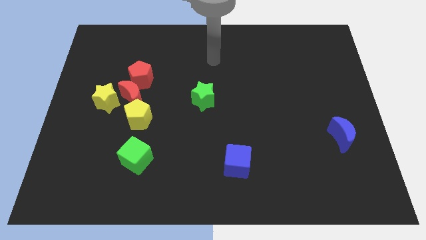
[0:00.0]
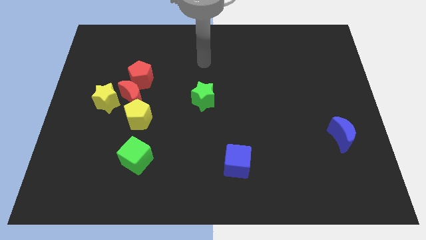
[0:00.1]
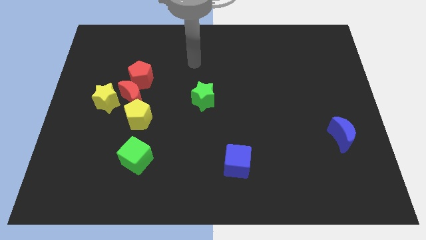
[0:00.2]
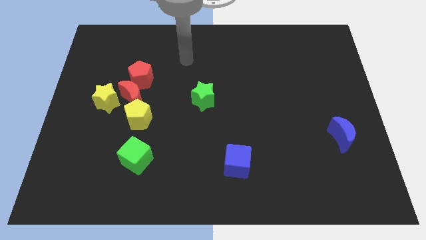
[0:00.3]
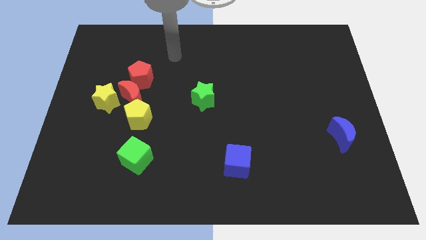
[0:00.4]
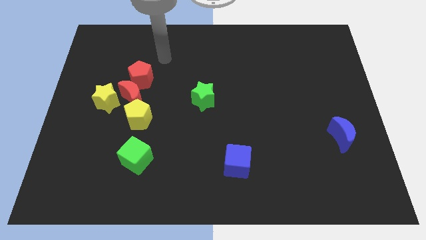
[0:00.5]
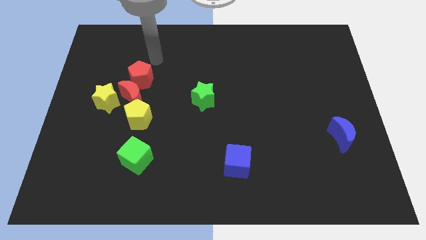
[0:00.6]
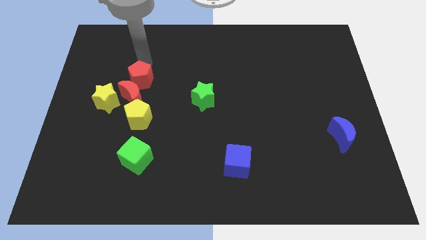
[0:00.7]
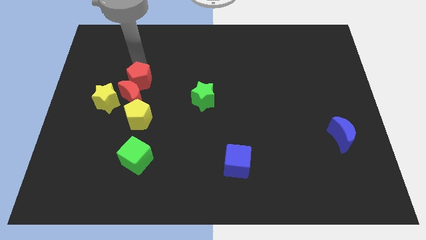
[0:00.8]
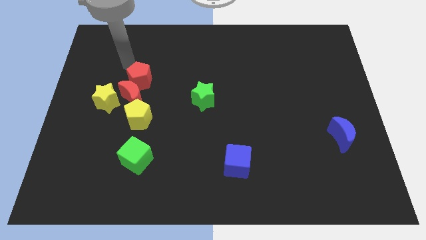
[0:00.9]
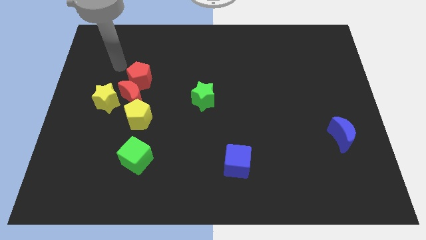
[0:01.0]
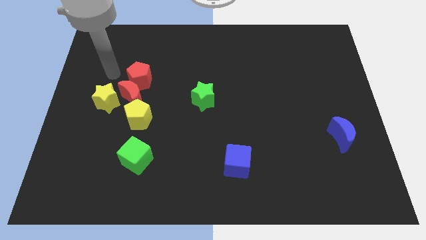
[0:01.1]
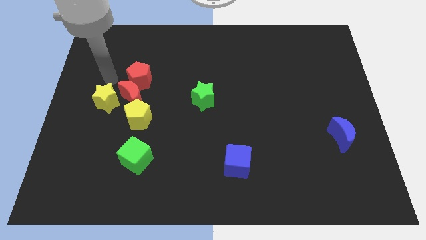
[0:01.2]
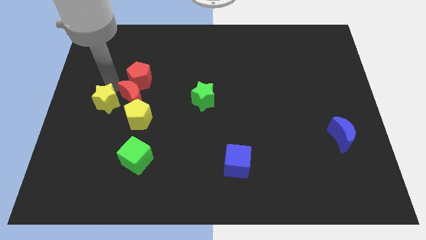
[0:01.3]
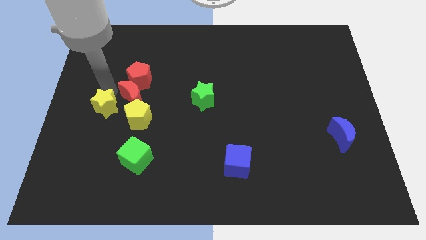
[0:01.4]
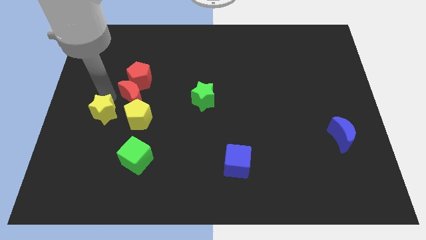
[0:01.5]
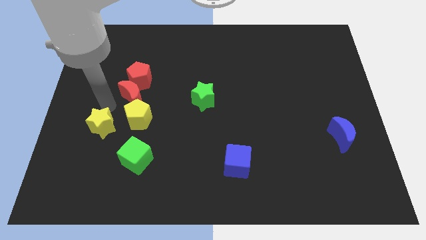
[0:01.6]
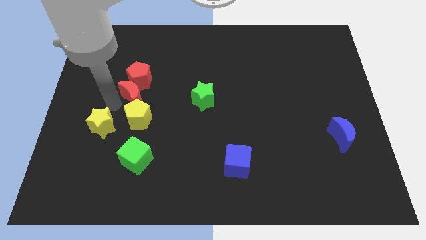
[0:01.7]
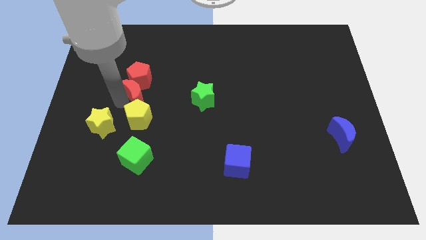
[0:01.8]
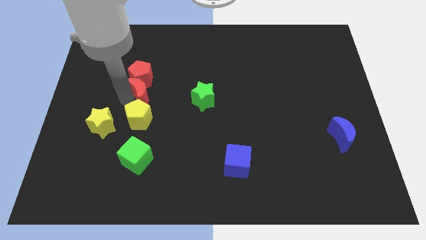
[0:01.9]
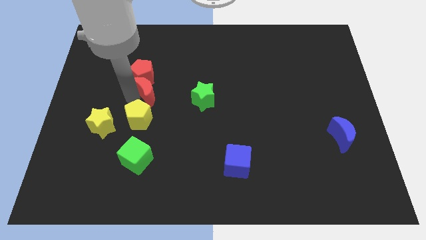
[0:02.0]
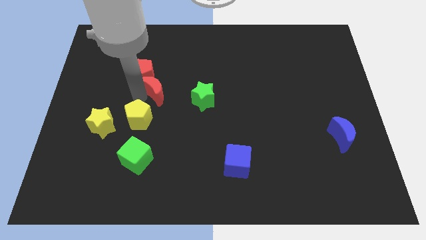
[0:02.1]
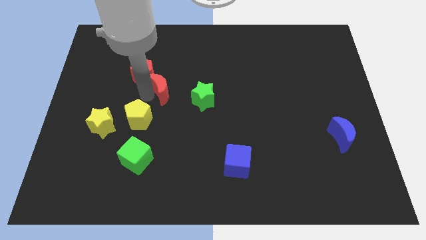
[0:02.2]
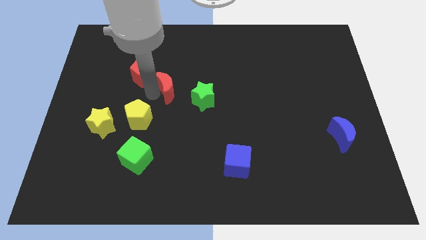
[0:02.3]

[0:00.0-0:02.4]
move the red moon away from the yellow star, red pentagon, and yellow pentagon

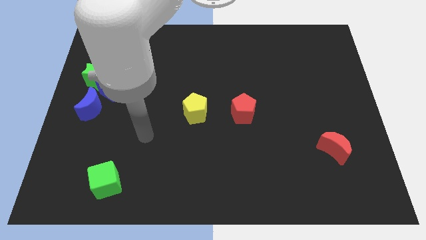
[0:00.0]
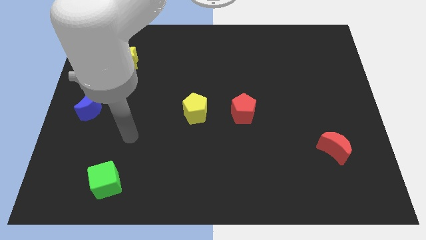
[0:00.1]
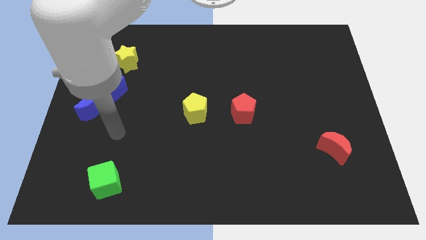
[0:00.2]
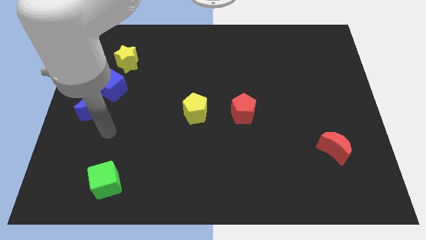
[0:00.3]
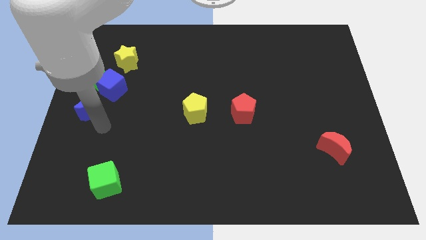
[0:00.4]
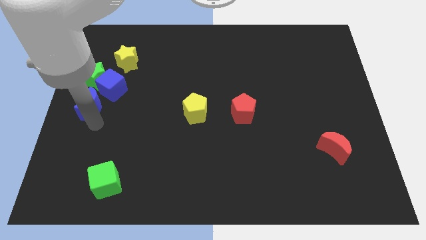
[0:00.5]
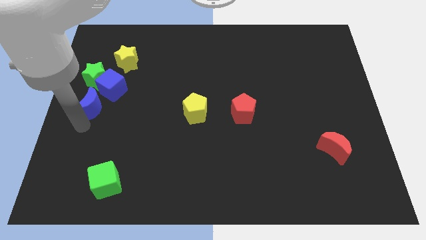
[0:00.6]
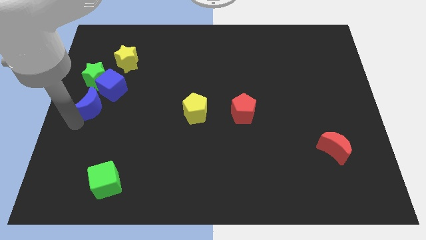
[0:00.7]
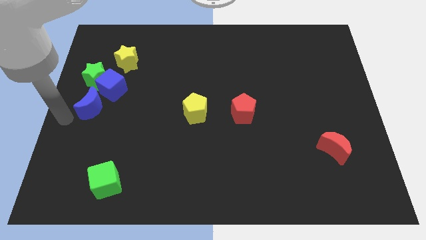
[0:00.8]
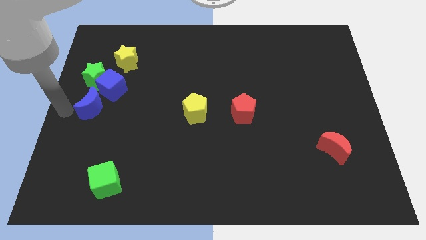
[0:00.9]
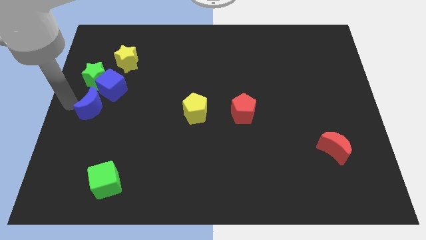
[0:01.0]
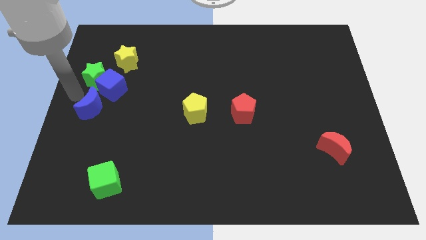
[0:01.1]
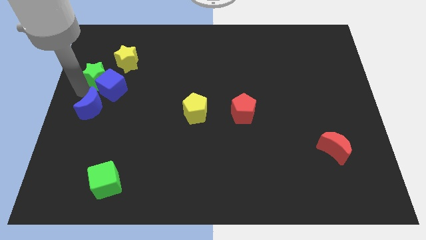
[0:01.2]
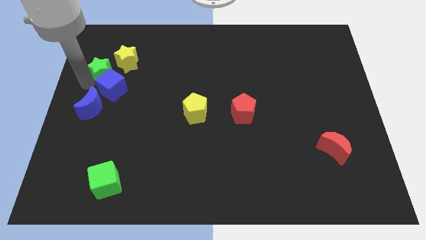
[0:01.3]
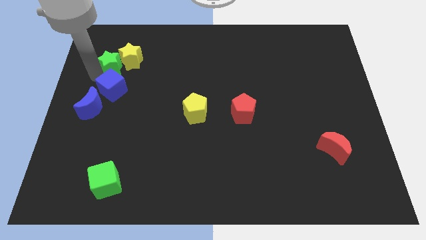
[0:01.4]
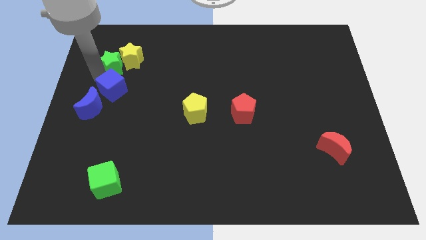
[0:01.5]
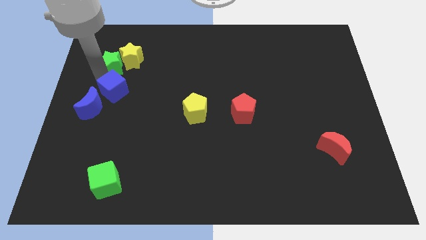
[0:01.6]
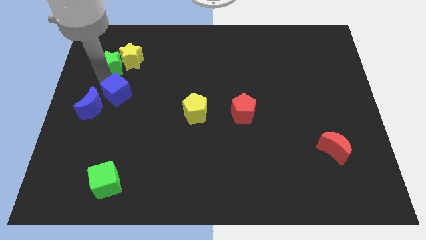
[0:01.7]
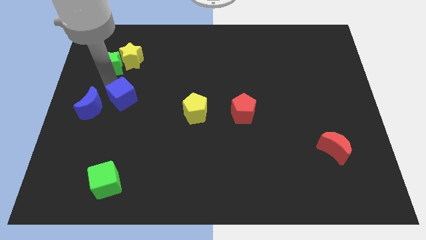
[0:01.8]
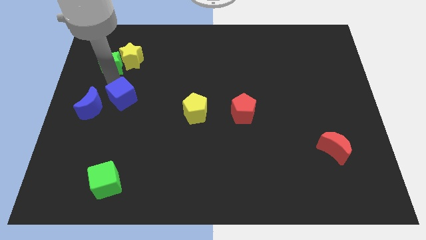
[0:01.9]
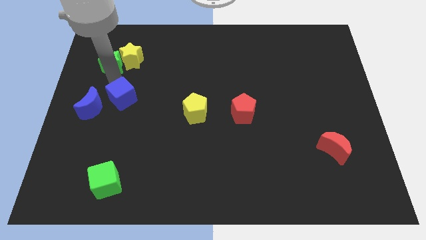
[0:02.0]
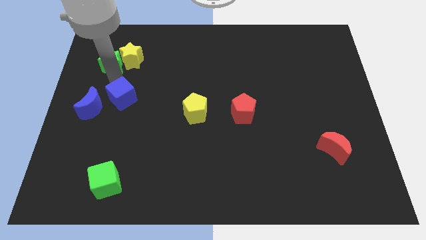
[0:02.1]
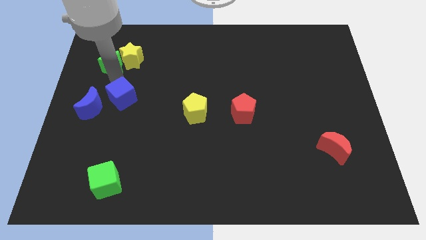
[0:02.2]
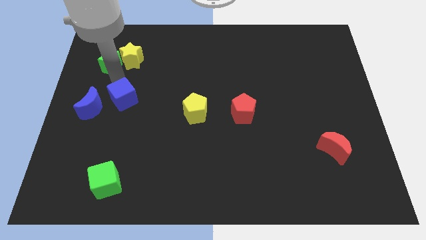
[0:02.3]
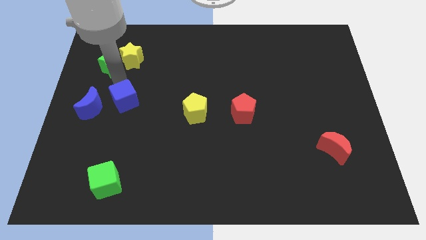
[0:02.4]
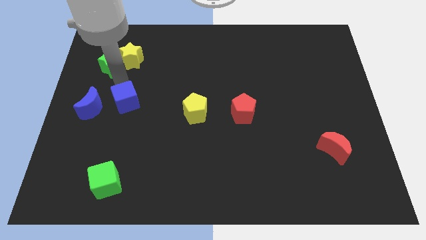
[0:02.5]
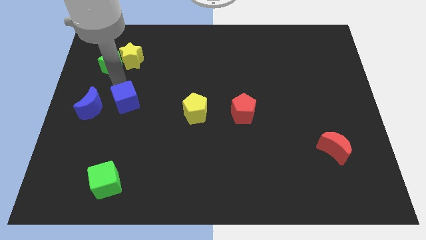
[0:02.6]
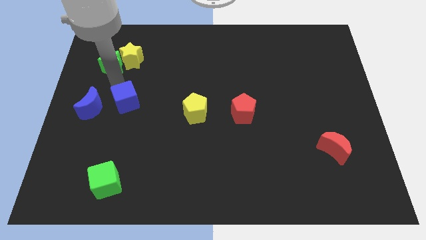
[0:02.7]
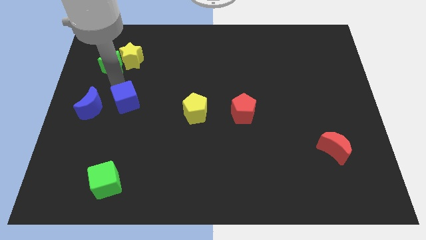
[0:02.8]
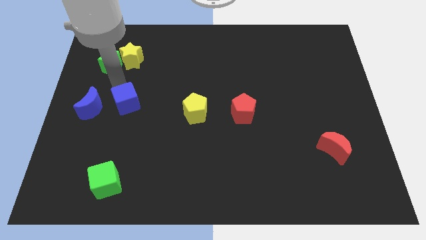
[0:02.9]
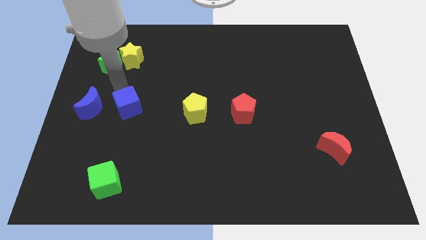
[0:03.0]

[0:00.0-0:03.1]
pull the blue cube apart from the green star, blue moon, and yellow star

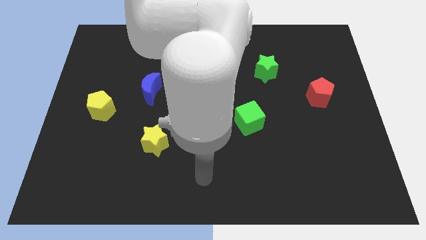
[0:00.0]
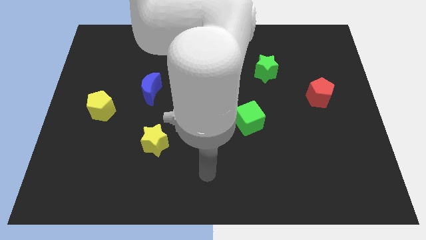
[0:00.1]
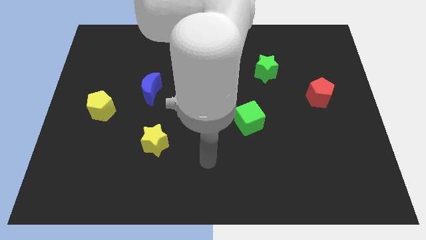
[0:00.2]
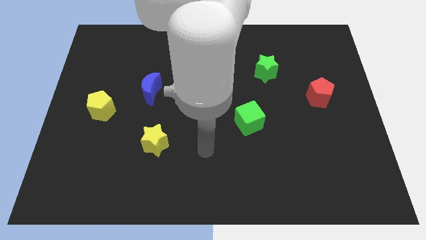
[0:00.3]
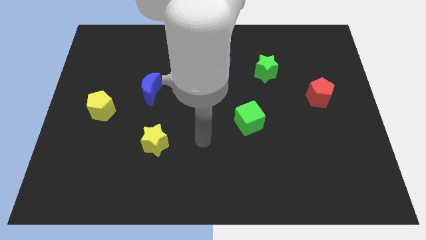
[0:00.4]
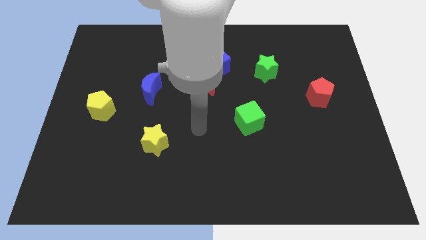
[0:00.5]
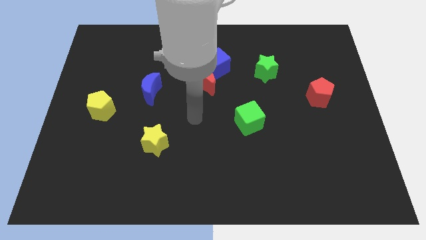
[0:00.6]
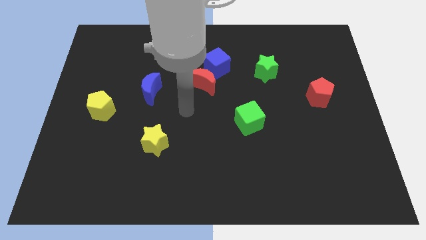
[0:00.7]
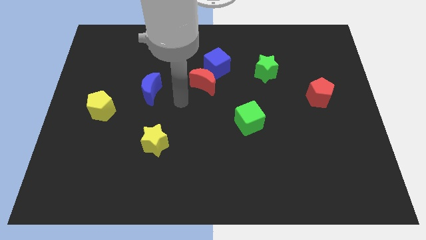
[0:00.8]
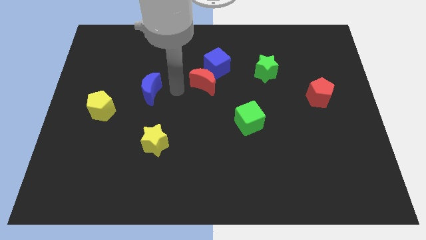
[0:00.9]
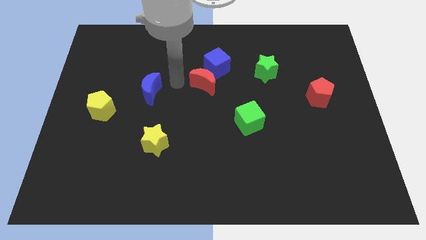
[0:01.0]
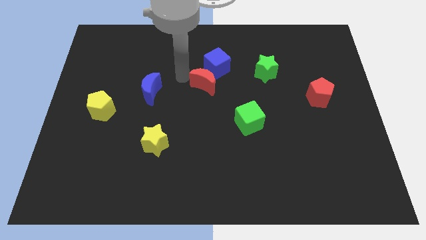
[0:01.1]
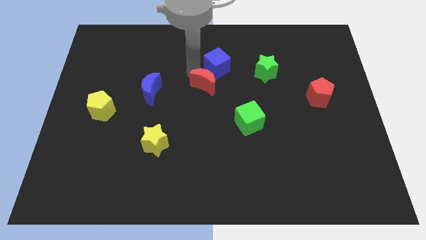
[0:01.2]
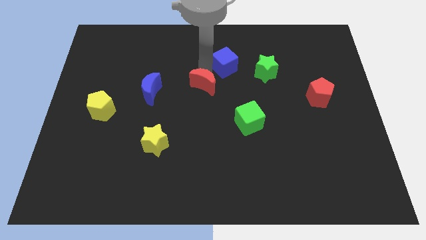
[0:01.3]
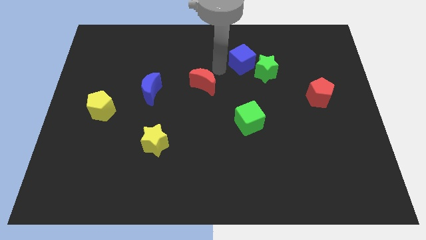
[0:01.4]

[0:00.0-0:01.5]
pull the red moon apart from the blue cube

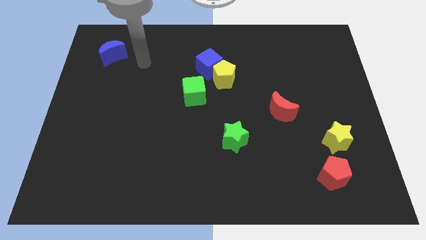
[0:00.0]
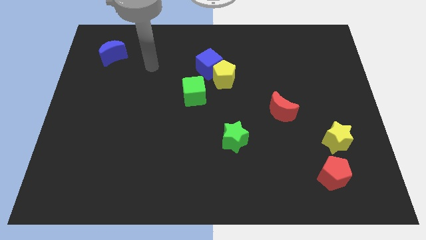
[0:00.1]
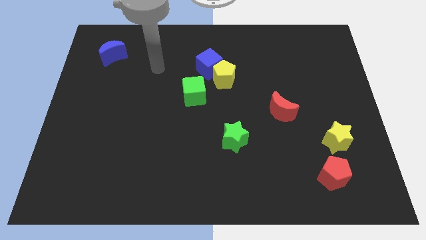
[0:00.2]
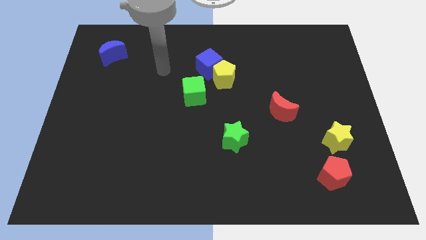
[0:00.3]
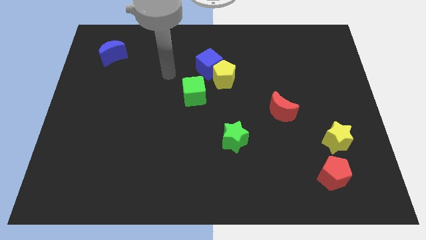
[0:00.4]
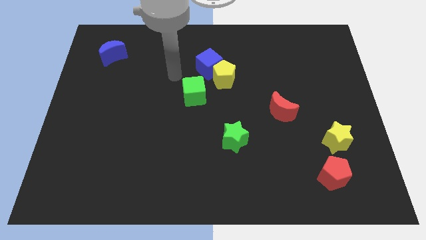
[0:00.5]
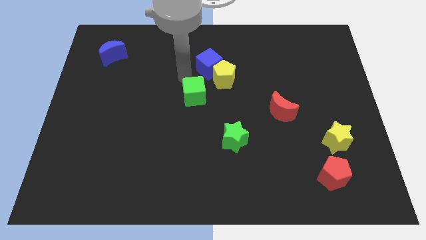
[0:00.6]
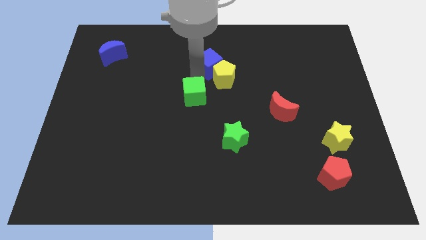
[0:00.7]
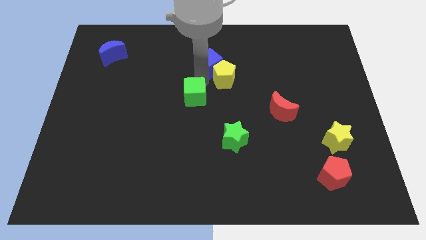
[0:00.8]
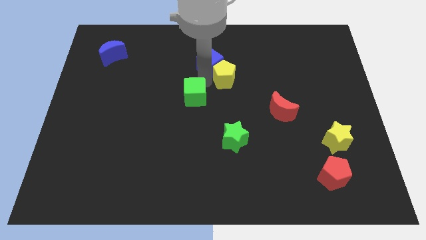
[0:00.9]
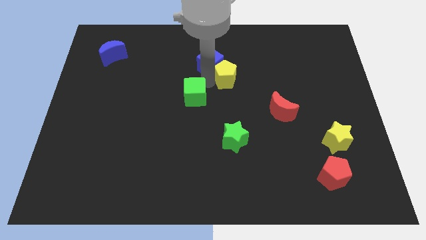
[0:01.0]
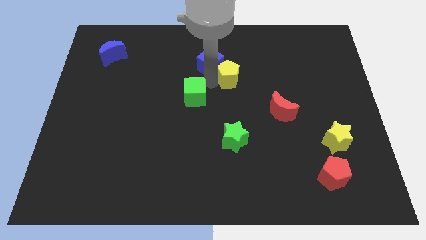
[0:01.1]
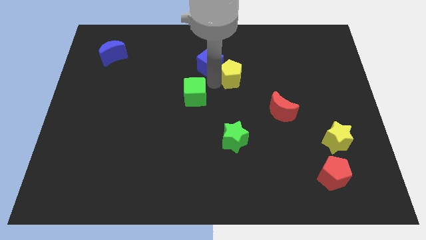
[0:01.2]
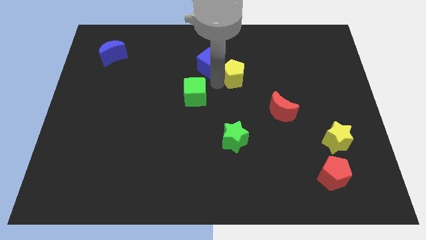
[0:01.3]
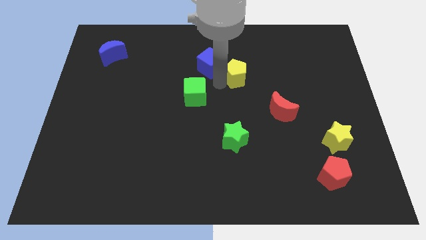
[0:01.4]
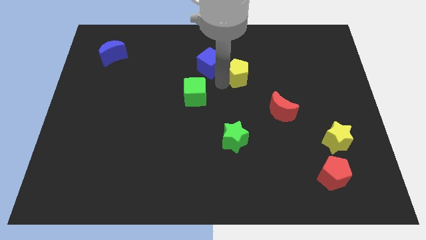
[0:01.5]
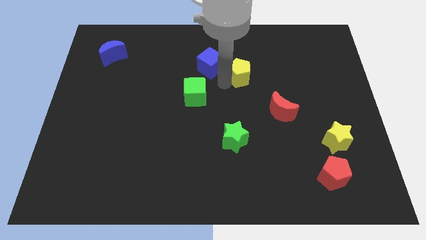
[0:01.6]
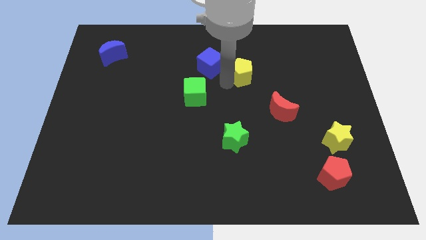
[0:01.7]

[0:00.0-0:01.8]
move the yellow pentagon away from the blue cube and green cube

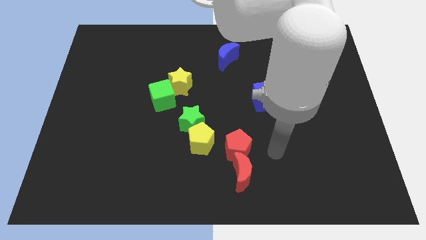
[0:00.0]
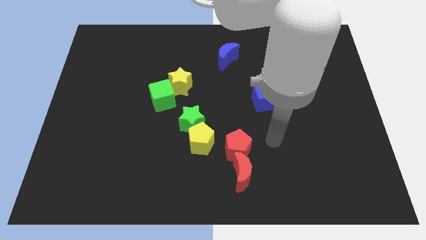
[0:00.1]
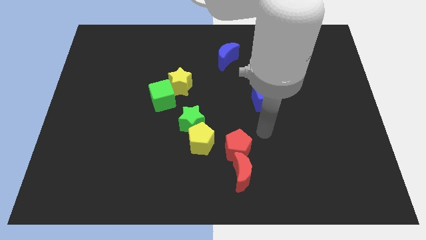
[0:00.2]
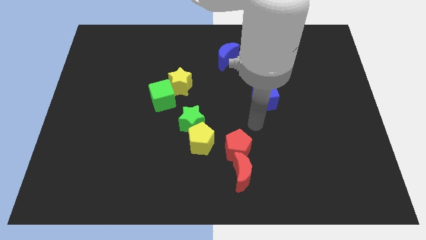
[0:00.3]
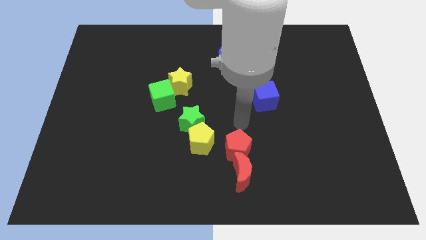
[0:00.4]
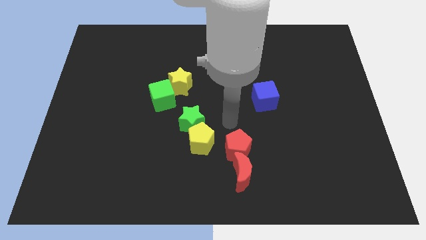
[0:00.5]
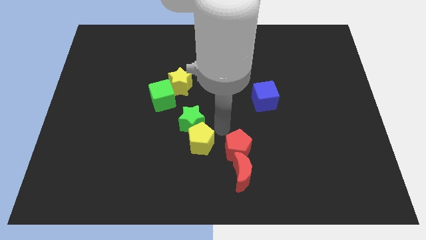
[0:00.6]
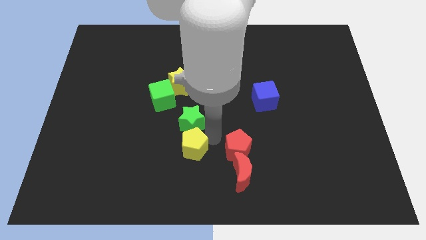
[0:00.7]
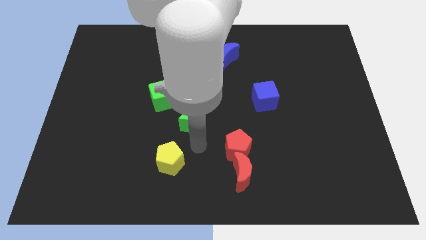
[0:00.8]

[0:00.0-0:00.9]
move the green star away from the yellow pentagon
